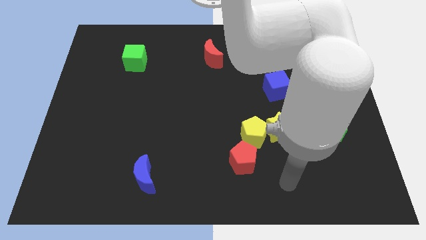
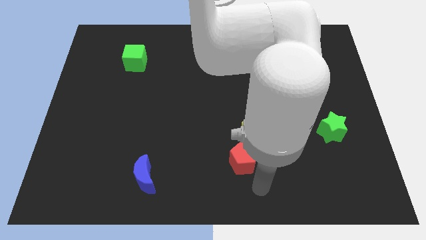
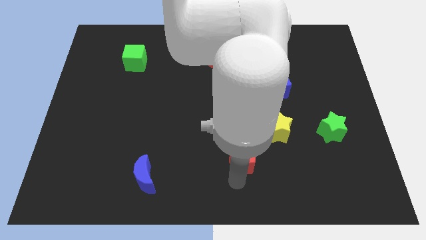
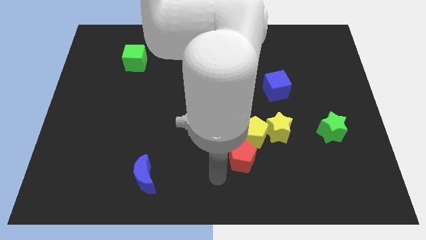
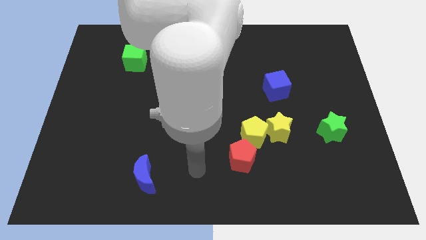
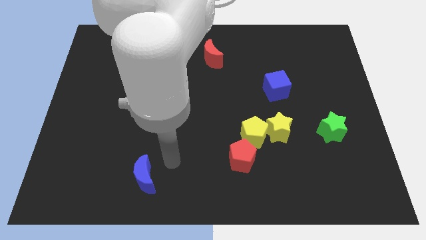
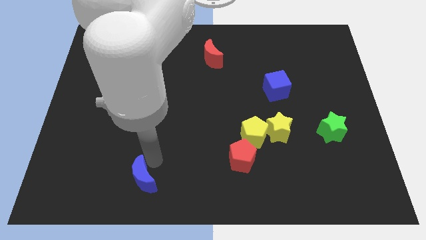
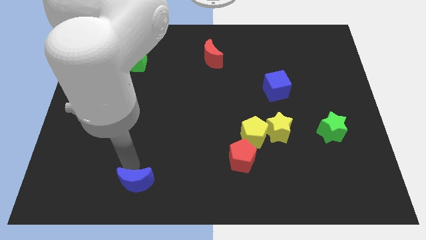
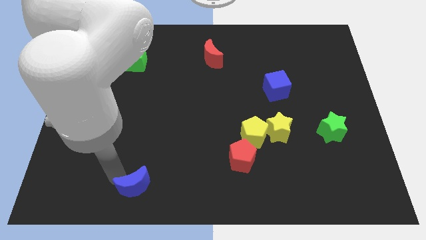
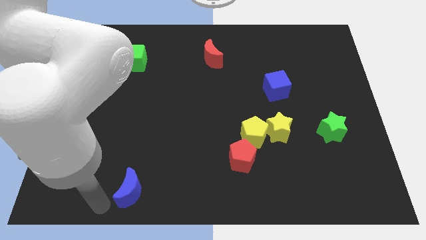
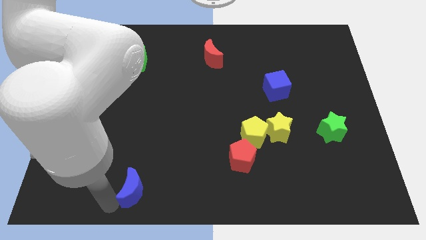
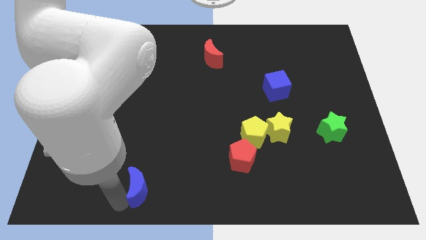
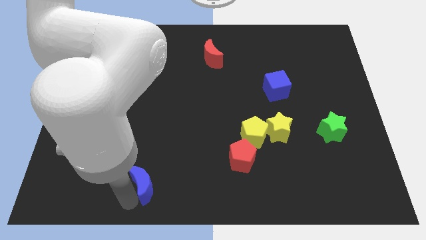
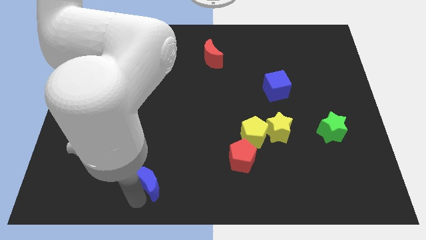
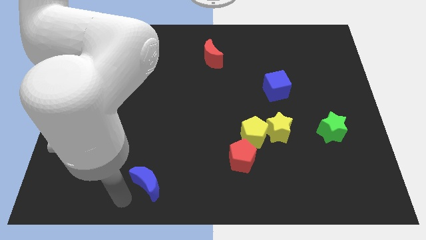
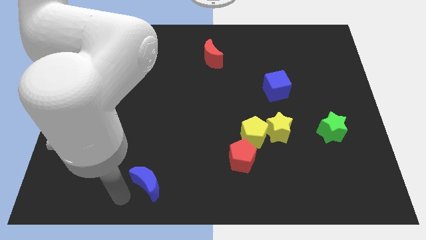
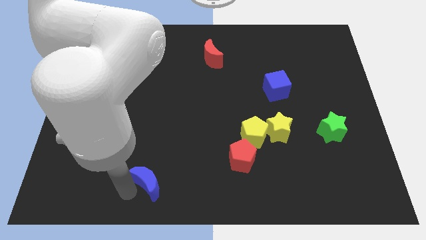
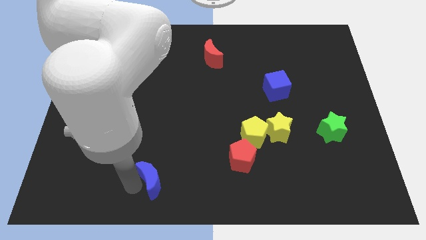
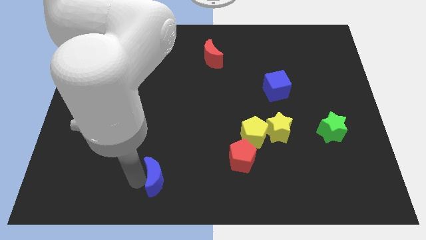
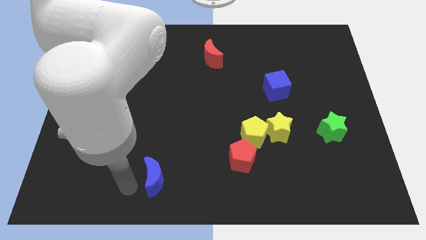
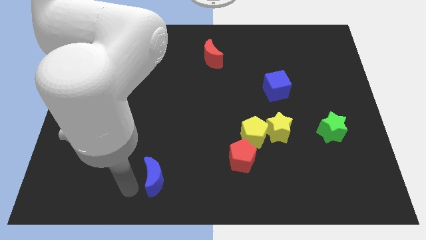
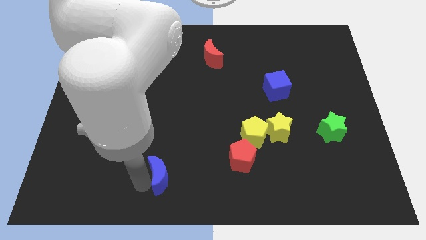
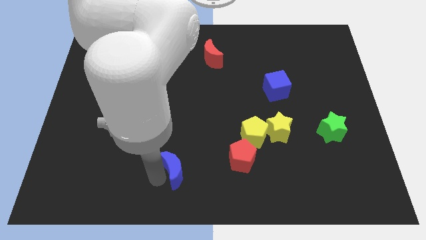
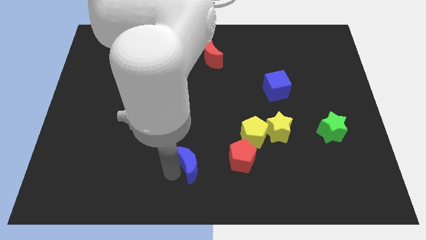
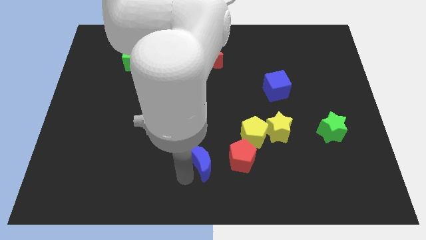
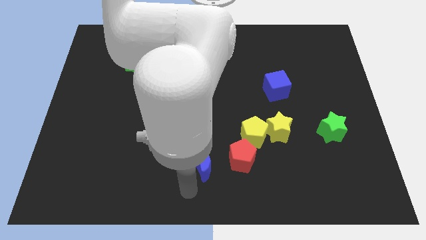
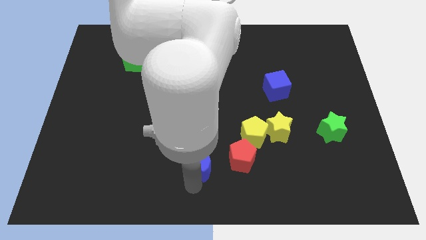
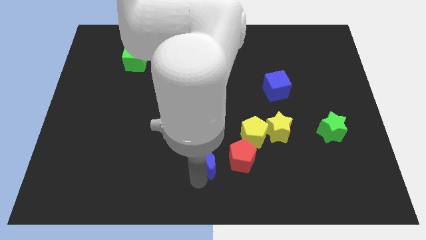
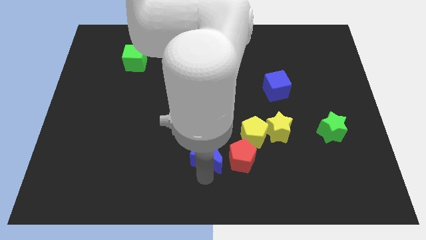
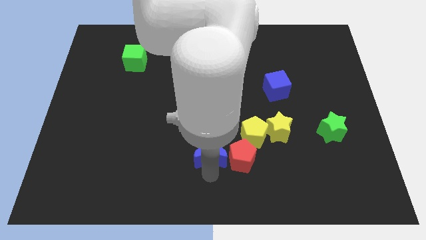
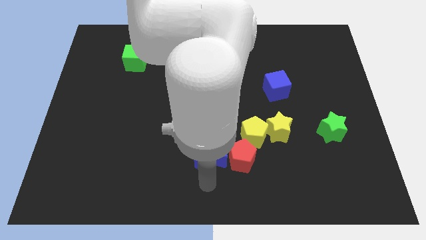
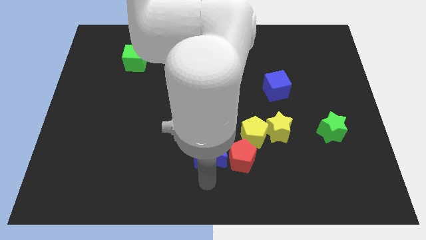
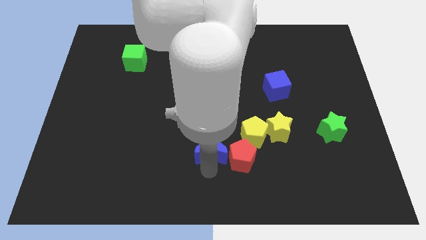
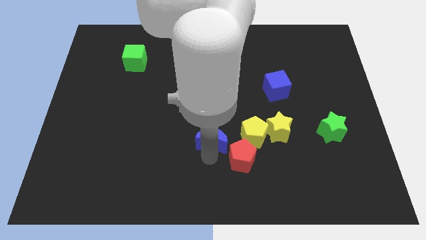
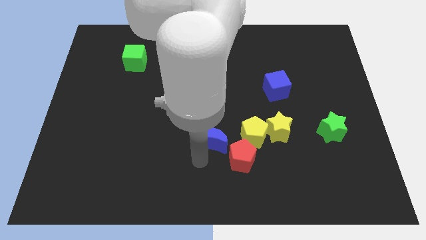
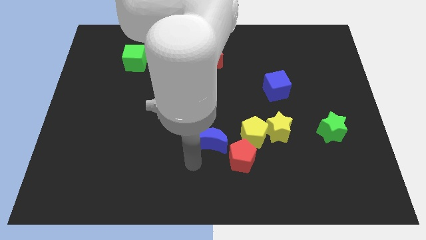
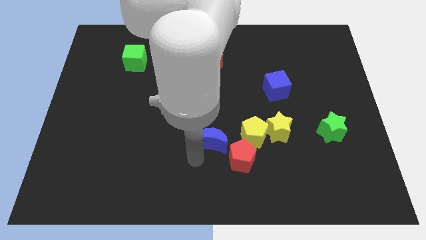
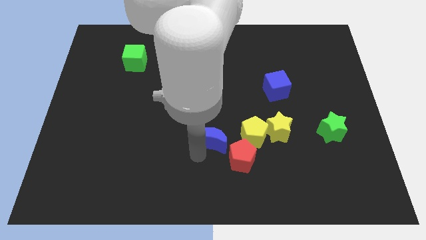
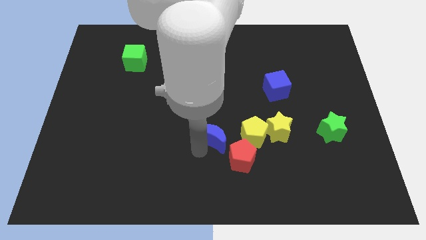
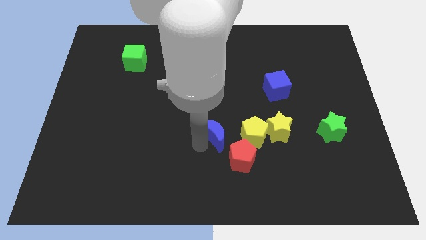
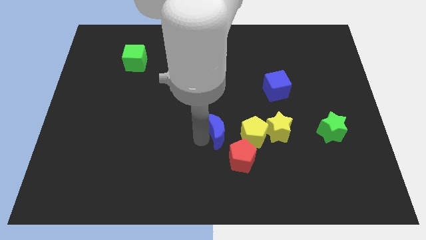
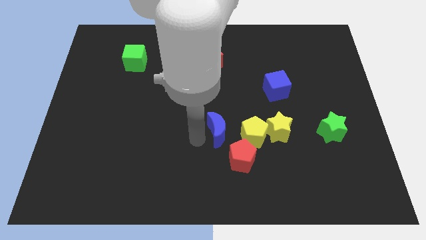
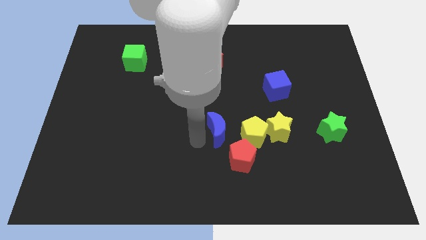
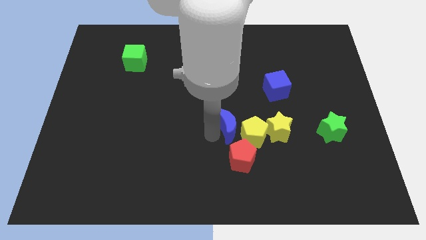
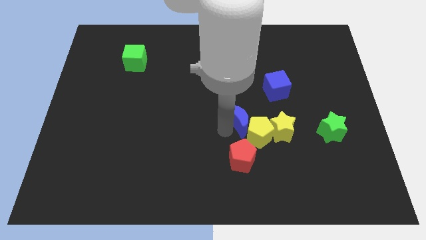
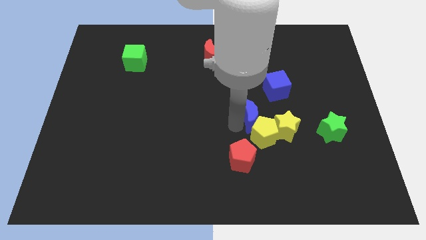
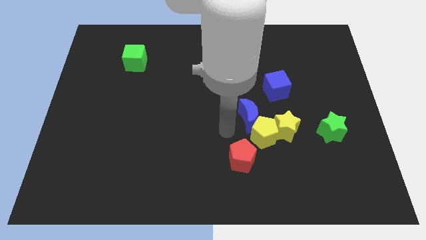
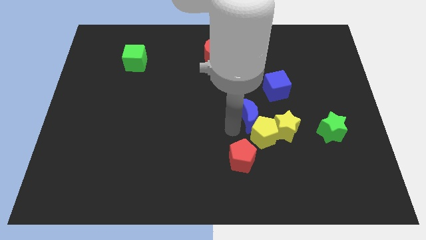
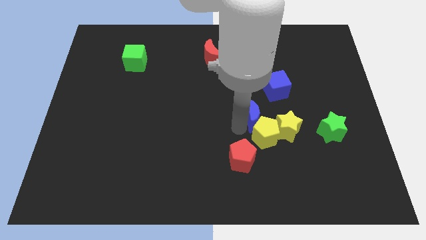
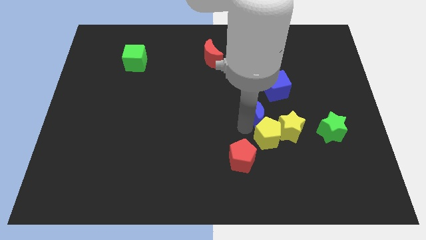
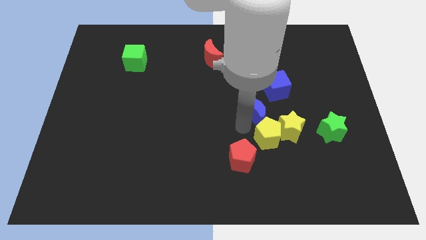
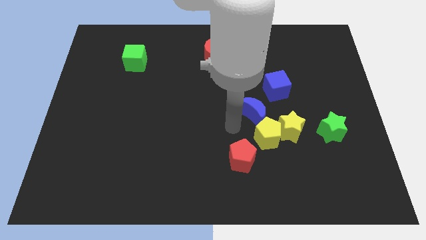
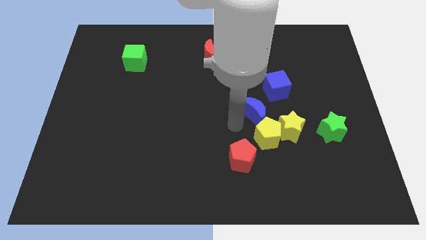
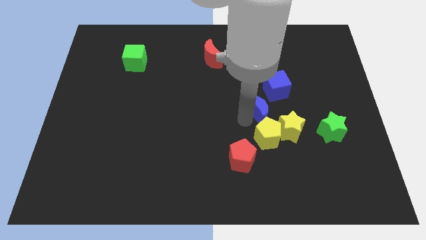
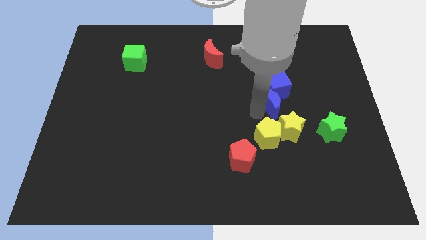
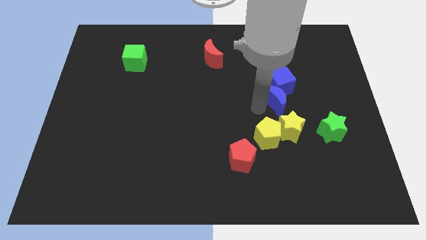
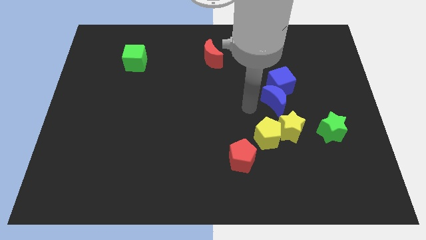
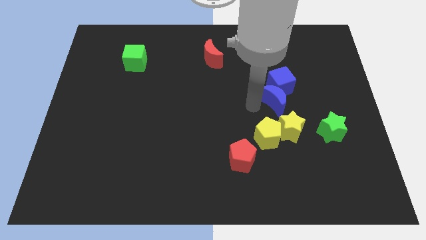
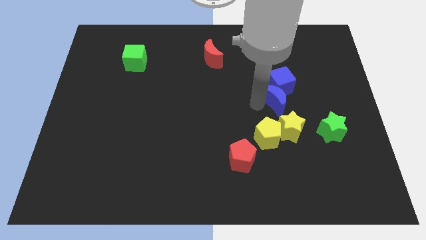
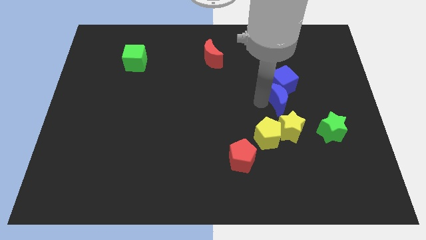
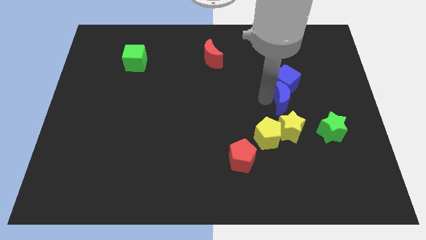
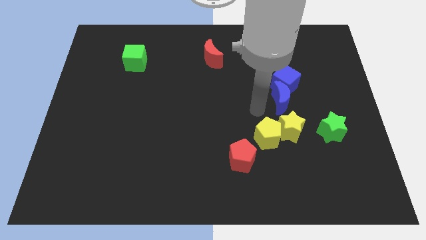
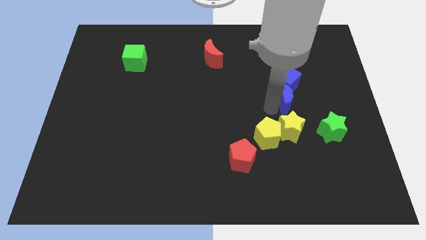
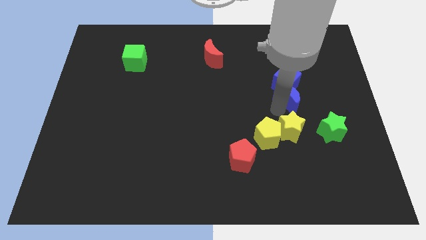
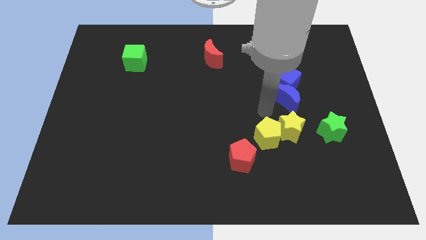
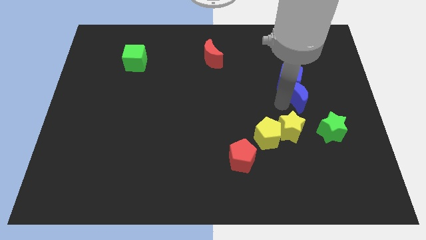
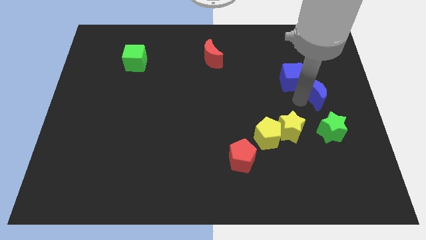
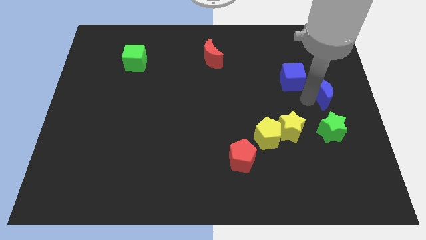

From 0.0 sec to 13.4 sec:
push the blue moon just right of the blue cube
